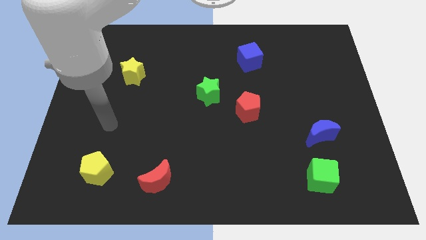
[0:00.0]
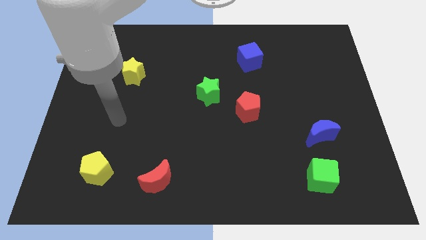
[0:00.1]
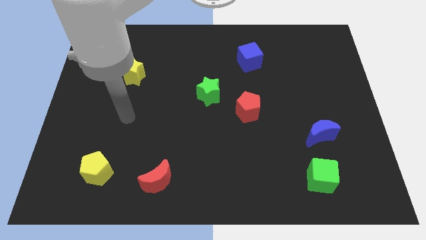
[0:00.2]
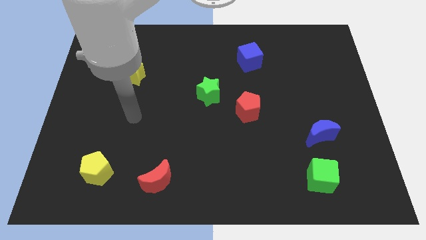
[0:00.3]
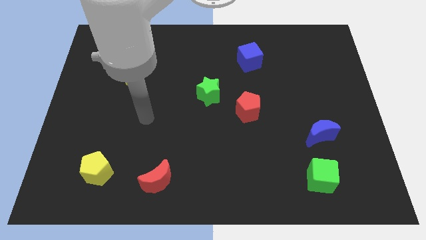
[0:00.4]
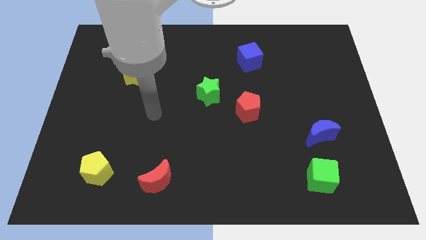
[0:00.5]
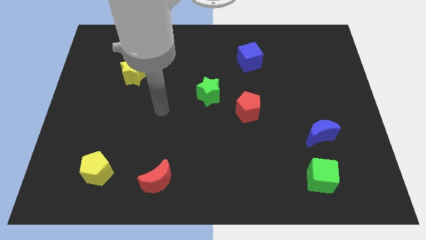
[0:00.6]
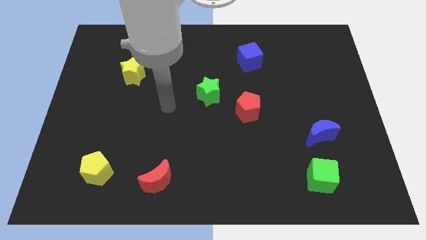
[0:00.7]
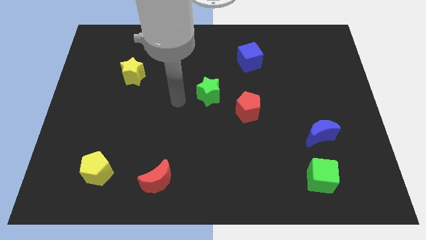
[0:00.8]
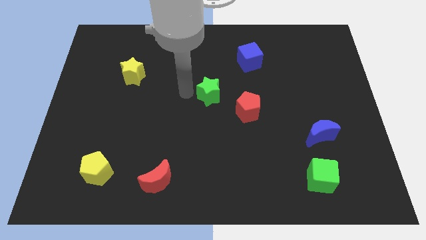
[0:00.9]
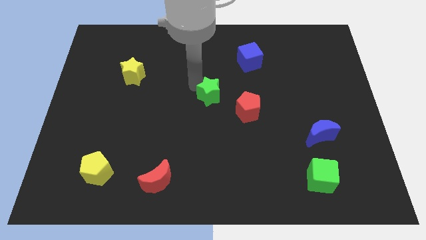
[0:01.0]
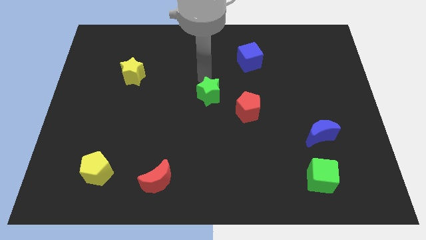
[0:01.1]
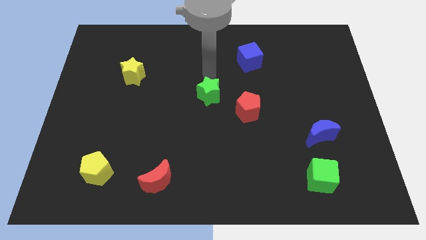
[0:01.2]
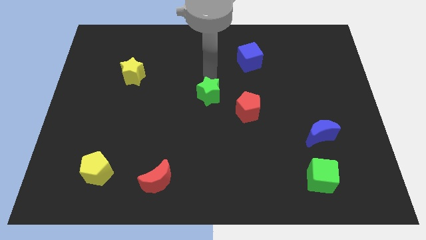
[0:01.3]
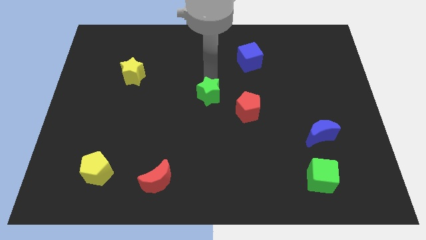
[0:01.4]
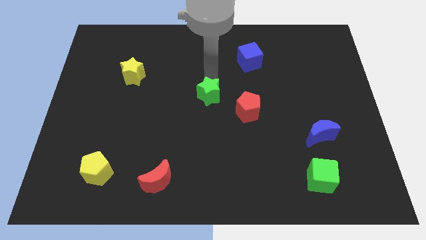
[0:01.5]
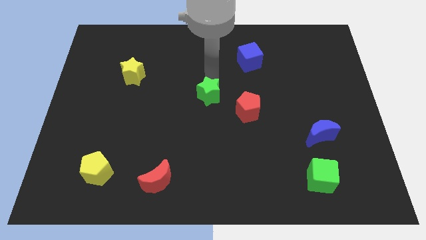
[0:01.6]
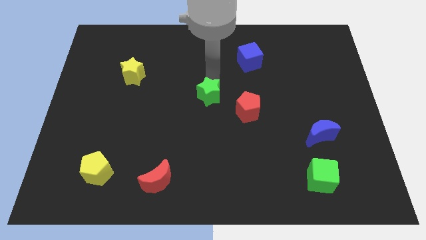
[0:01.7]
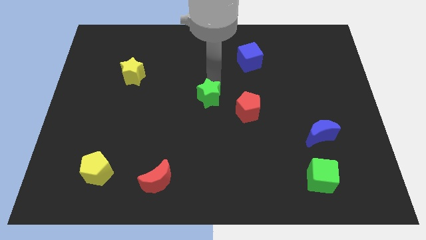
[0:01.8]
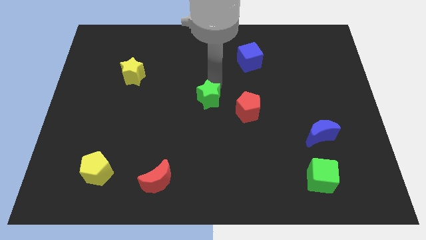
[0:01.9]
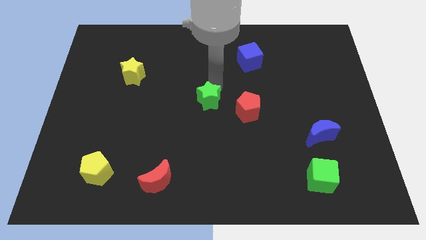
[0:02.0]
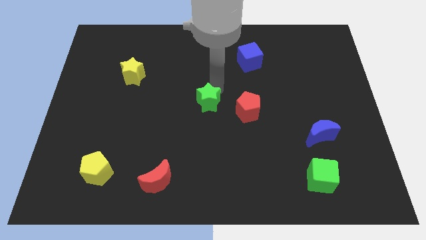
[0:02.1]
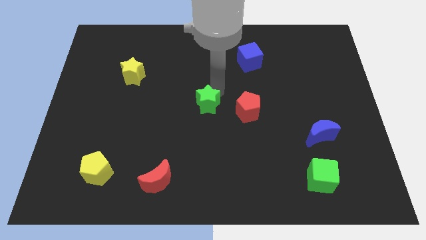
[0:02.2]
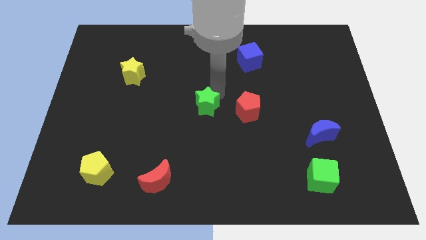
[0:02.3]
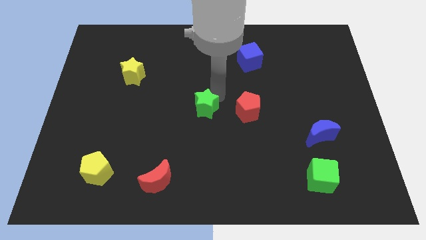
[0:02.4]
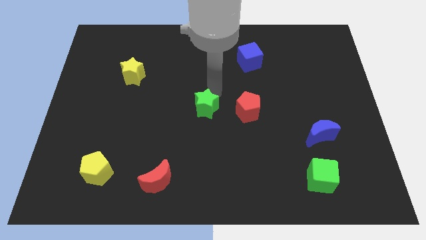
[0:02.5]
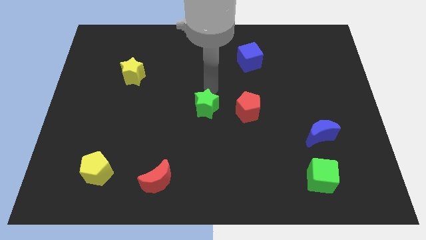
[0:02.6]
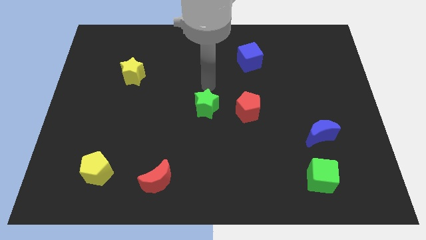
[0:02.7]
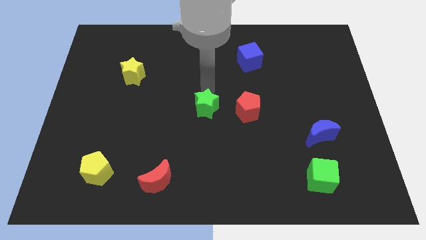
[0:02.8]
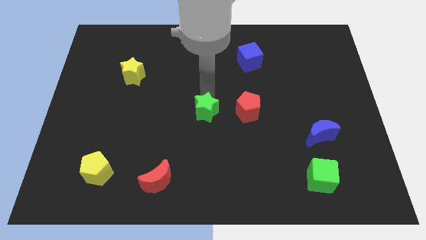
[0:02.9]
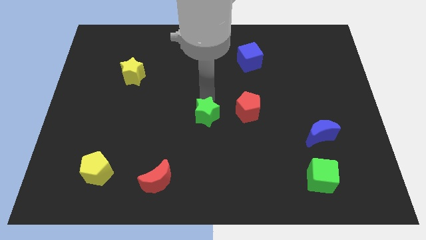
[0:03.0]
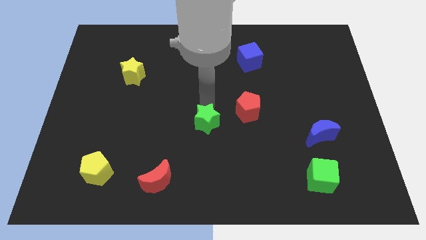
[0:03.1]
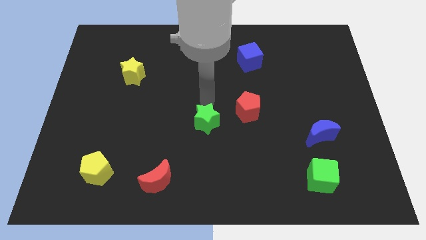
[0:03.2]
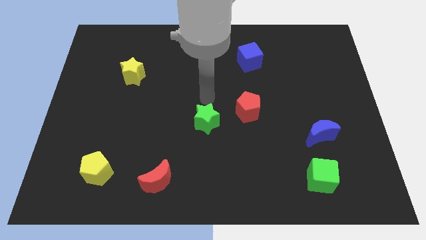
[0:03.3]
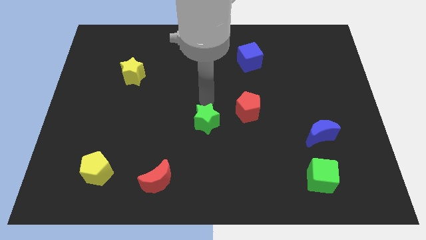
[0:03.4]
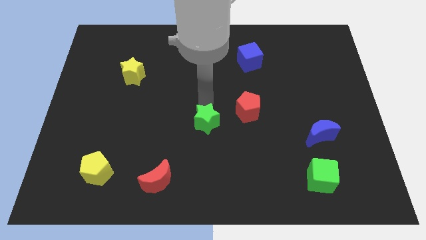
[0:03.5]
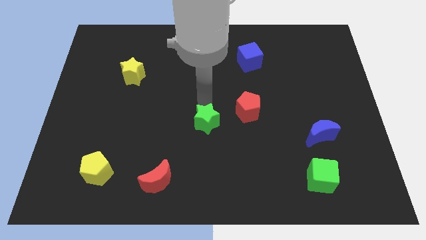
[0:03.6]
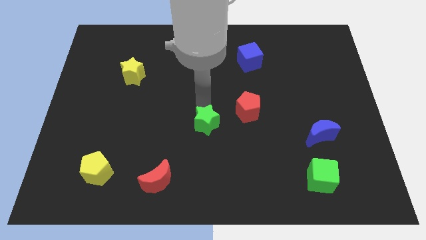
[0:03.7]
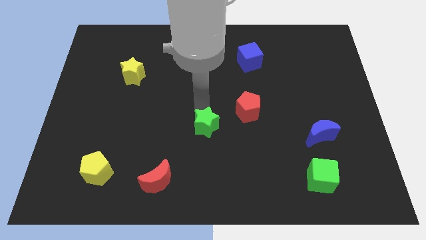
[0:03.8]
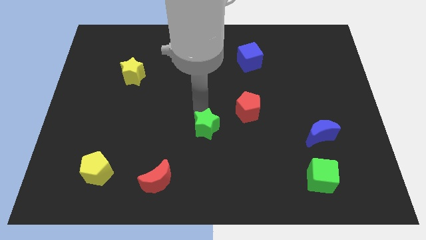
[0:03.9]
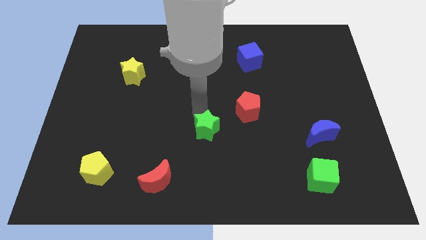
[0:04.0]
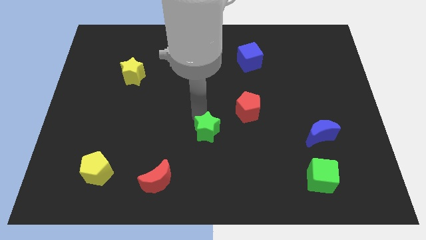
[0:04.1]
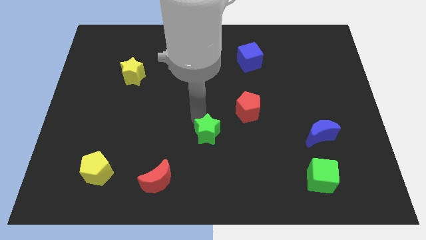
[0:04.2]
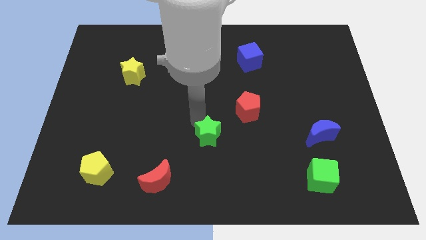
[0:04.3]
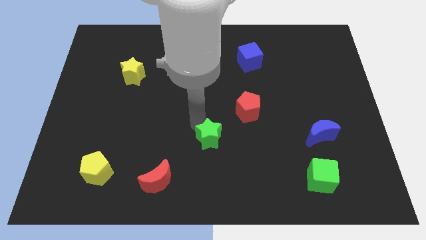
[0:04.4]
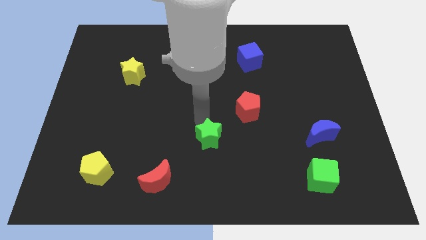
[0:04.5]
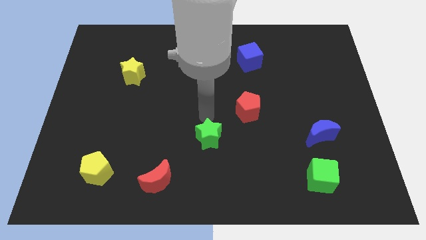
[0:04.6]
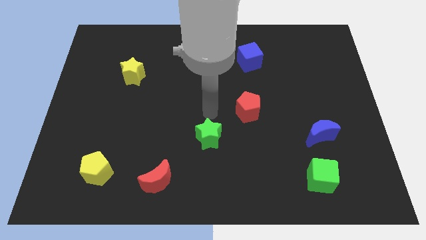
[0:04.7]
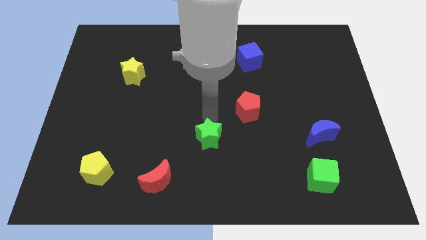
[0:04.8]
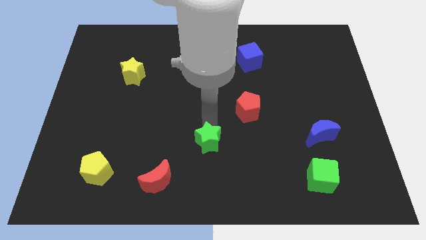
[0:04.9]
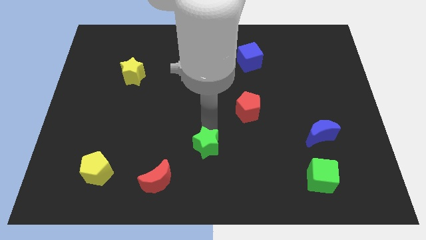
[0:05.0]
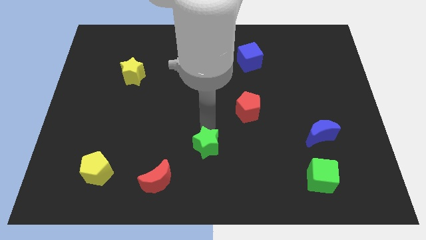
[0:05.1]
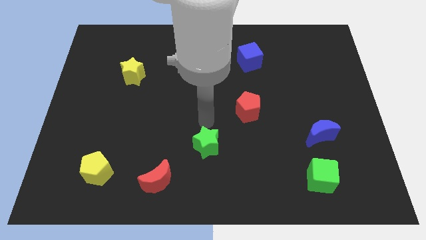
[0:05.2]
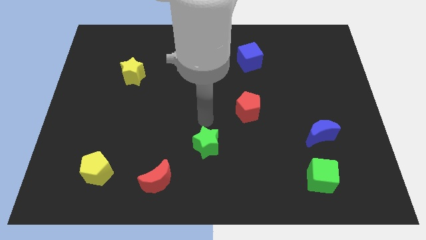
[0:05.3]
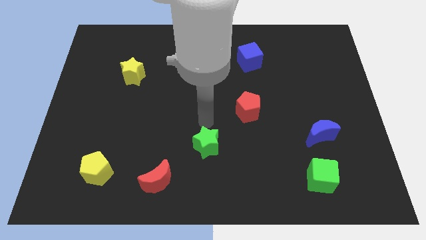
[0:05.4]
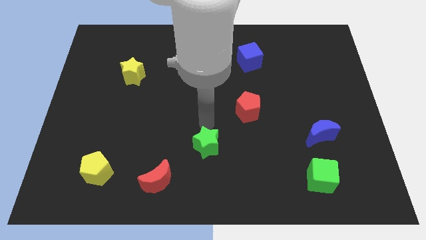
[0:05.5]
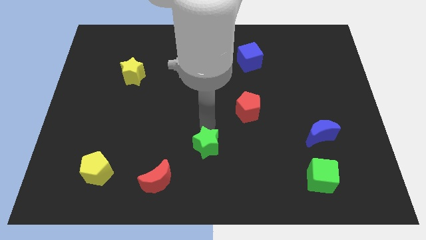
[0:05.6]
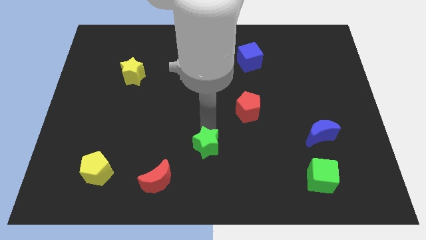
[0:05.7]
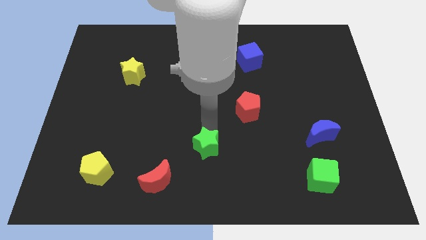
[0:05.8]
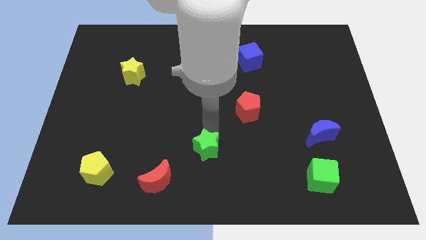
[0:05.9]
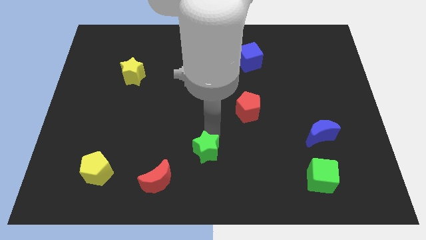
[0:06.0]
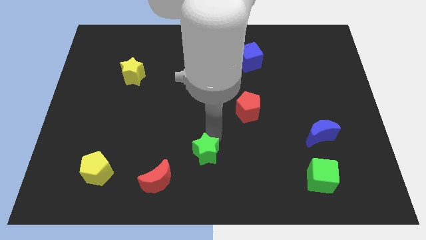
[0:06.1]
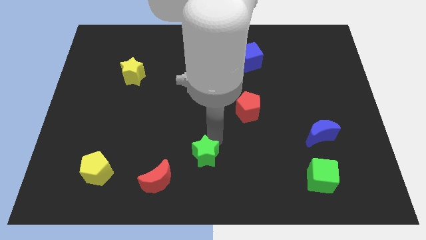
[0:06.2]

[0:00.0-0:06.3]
push the green star to the bottom side

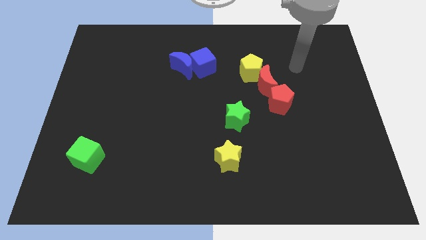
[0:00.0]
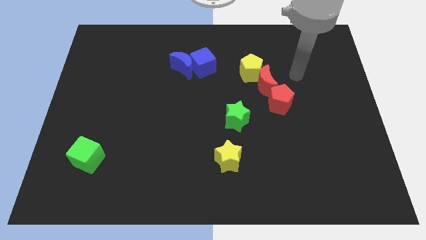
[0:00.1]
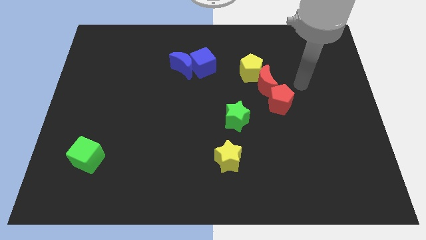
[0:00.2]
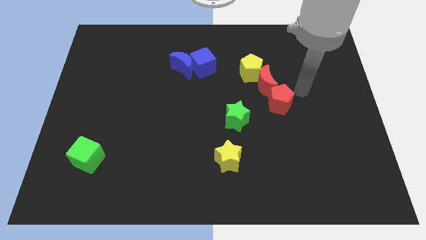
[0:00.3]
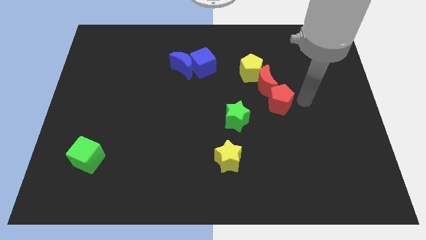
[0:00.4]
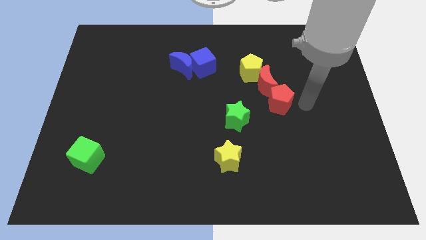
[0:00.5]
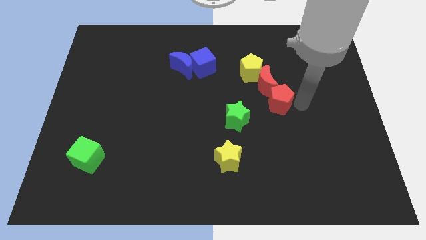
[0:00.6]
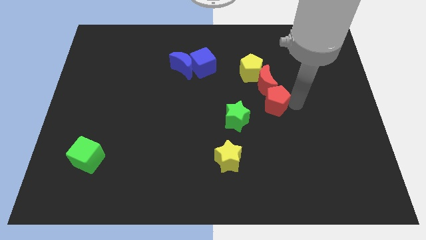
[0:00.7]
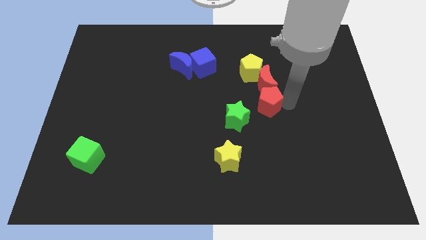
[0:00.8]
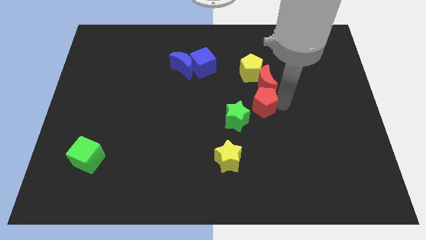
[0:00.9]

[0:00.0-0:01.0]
push the red pentagon to the center of the board

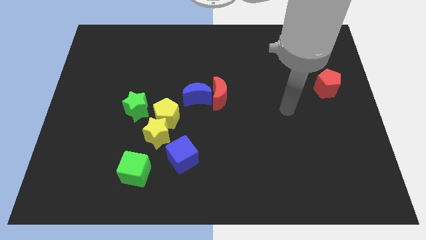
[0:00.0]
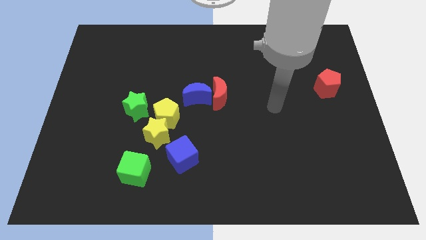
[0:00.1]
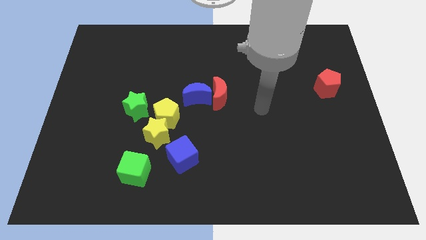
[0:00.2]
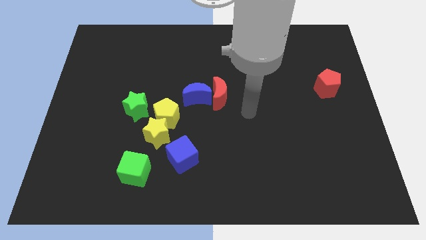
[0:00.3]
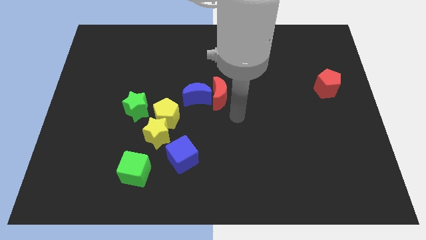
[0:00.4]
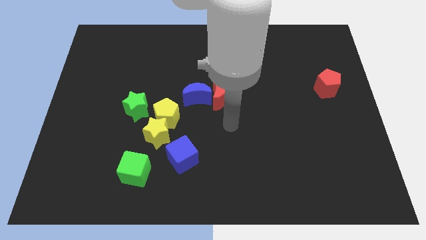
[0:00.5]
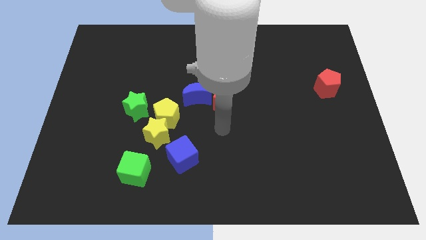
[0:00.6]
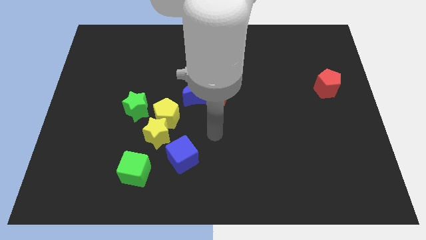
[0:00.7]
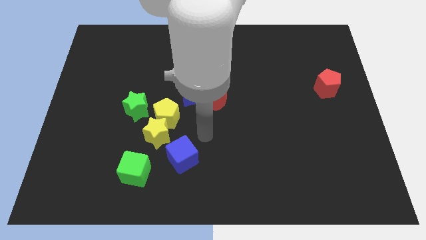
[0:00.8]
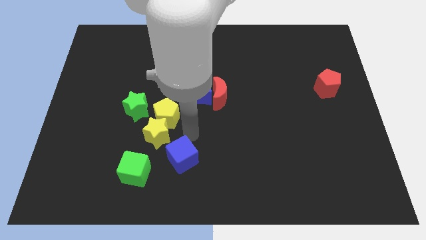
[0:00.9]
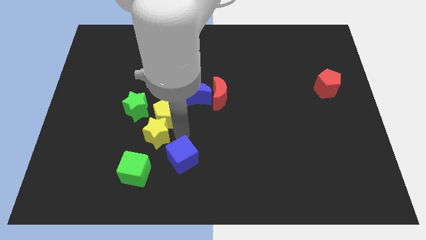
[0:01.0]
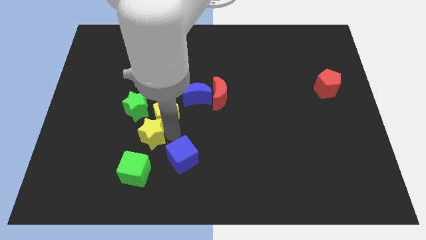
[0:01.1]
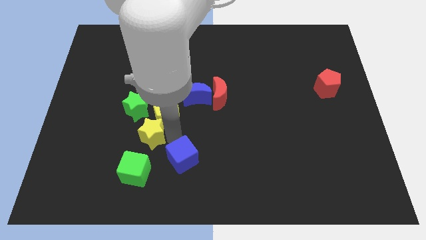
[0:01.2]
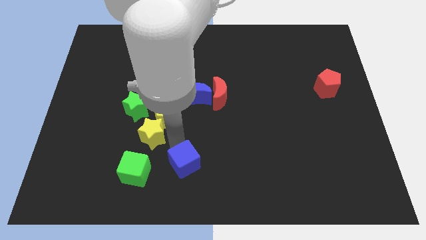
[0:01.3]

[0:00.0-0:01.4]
put the blue cube to the bottom side
